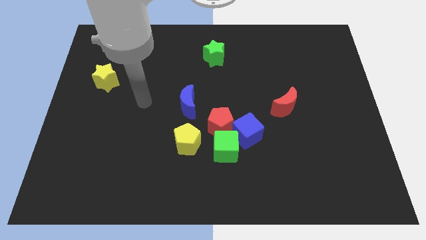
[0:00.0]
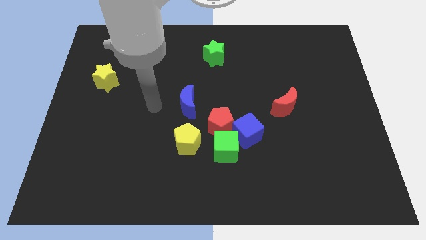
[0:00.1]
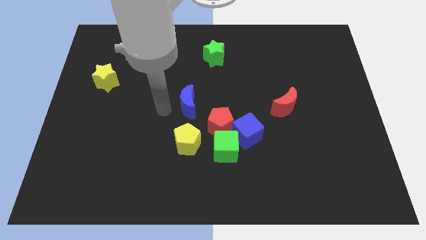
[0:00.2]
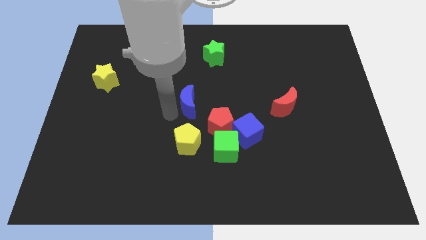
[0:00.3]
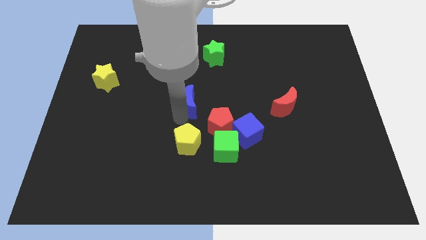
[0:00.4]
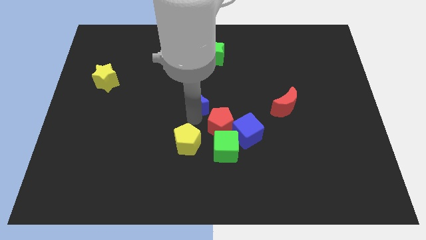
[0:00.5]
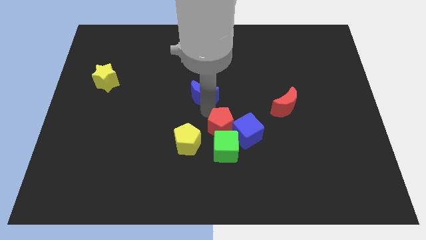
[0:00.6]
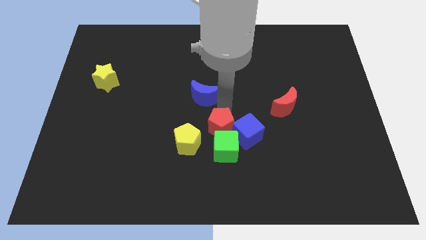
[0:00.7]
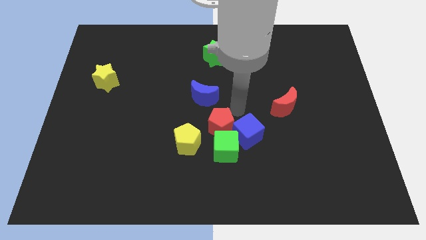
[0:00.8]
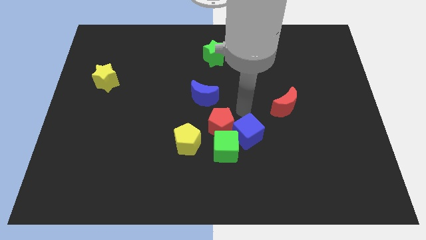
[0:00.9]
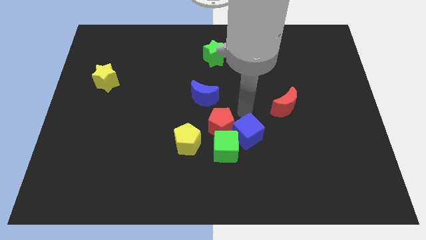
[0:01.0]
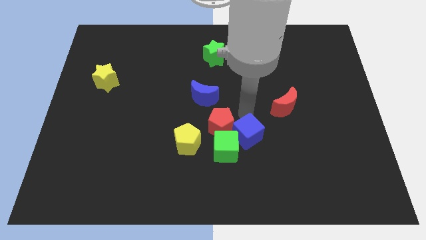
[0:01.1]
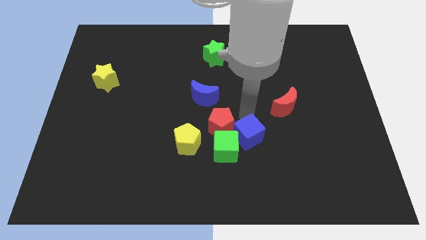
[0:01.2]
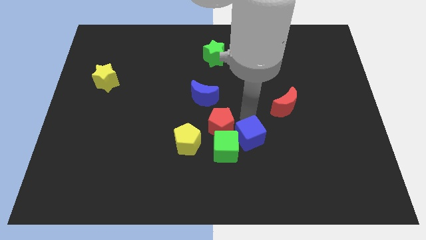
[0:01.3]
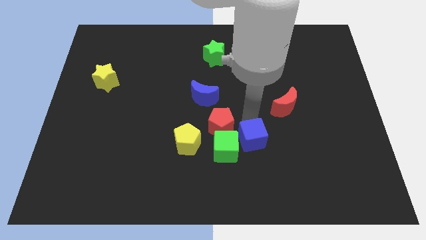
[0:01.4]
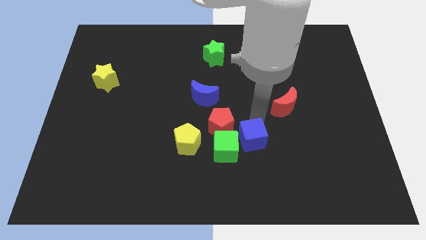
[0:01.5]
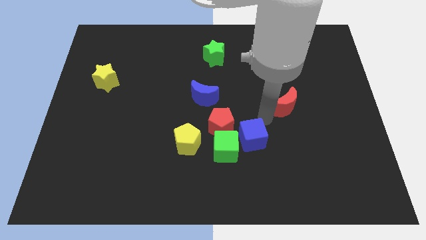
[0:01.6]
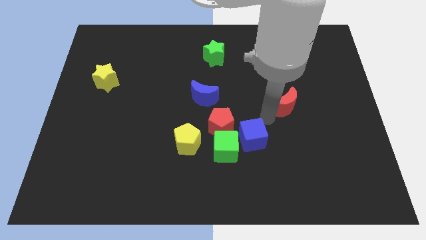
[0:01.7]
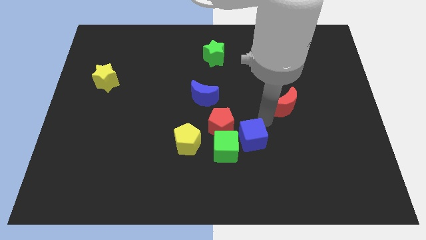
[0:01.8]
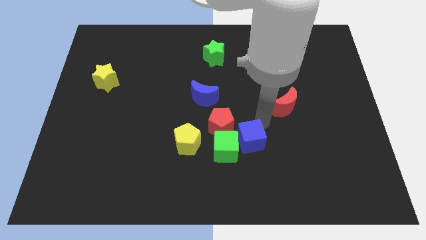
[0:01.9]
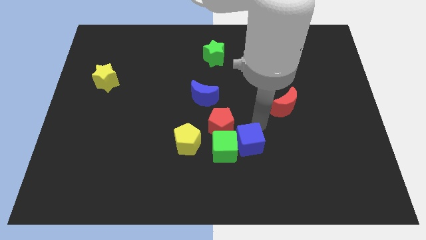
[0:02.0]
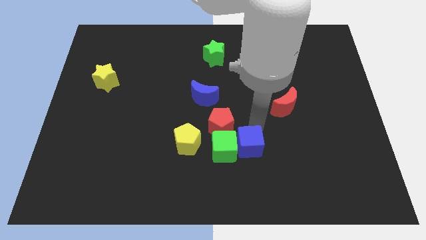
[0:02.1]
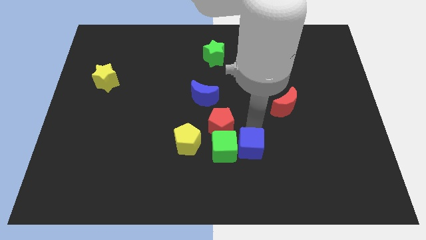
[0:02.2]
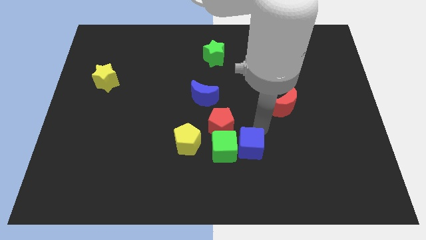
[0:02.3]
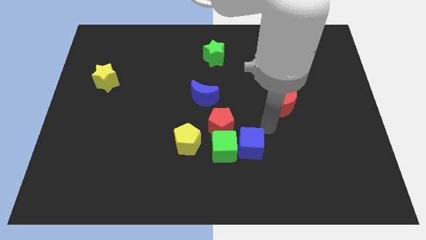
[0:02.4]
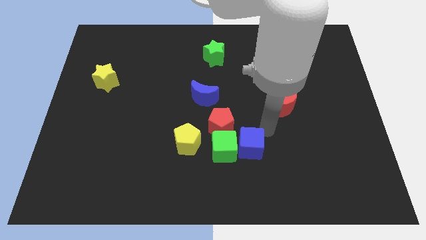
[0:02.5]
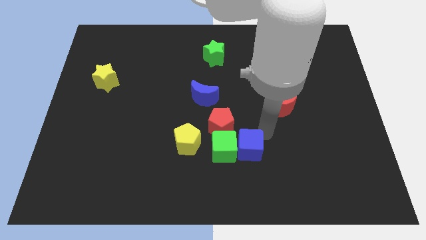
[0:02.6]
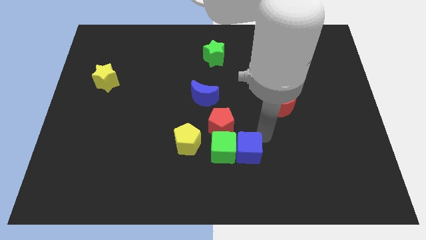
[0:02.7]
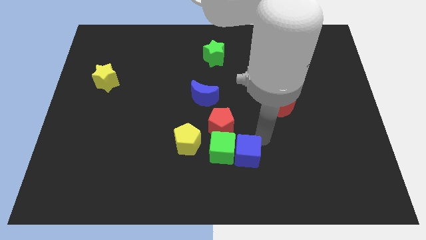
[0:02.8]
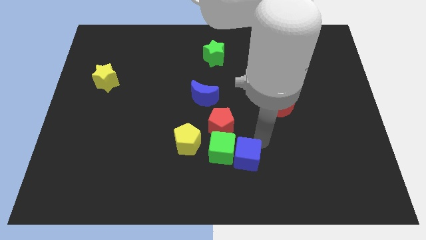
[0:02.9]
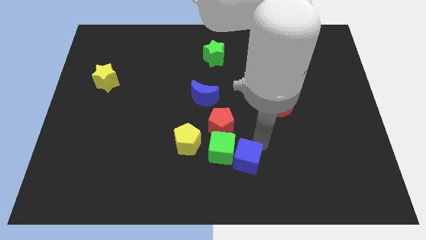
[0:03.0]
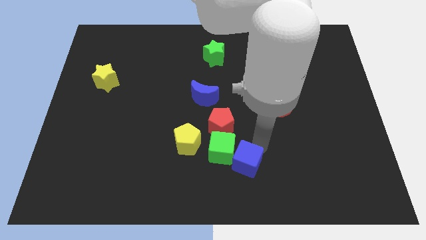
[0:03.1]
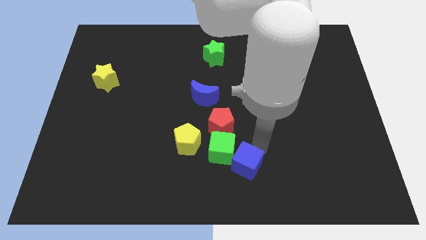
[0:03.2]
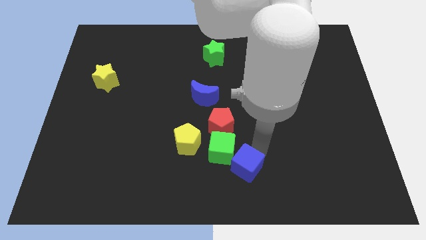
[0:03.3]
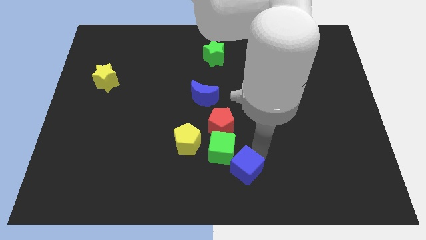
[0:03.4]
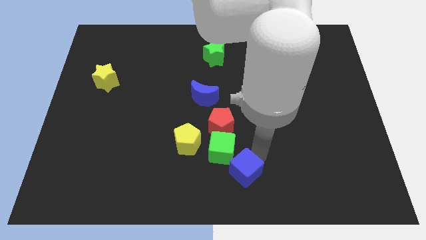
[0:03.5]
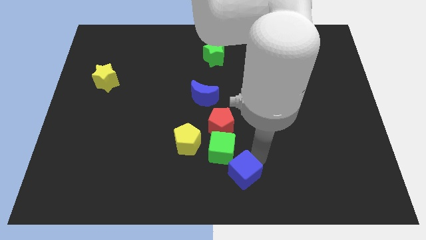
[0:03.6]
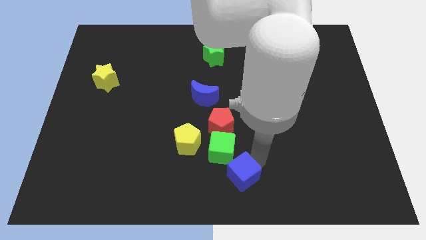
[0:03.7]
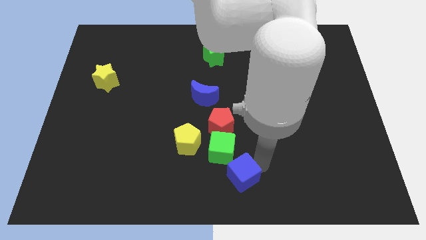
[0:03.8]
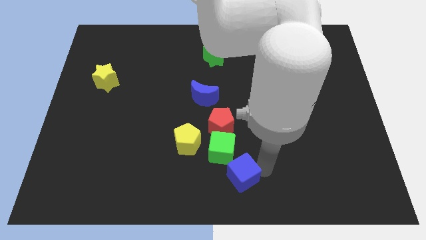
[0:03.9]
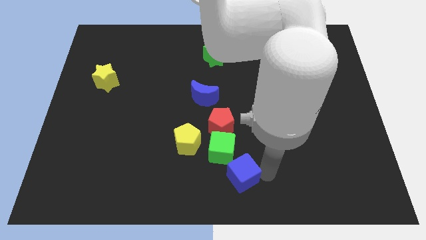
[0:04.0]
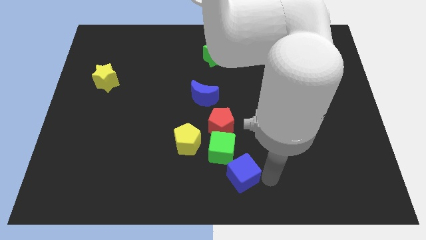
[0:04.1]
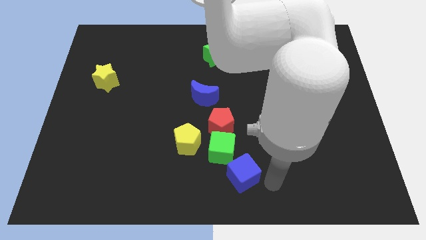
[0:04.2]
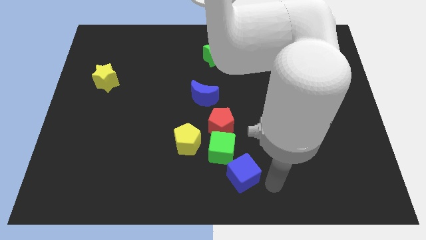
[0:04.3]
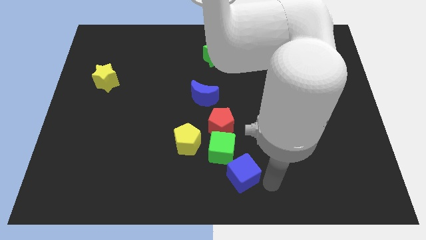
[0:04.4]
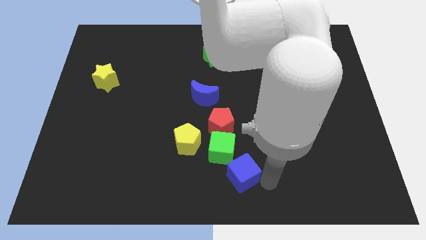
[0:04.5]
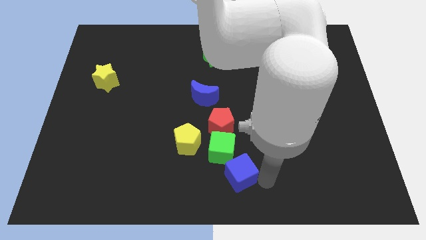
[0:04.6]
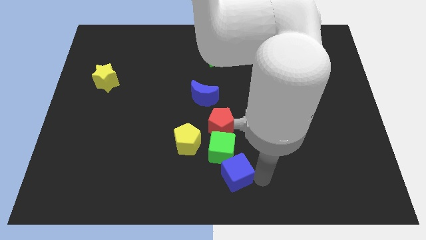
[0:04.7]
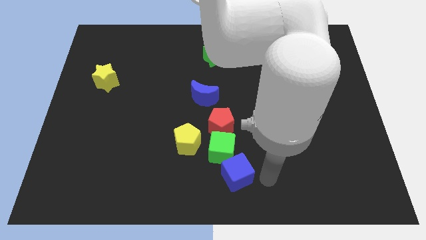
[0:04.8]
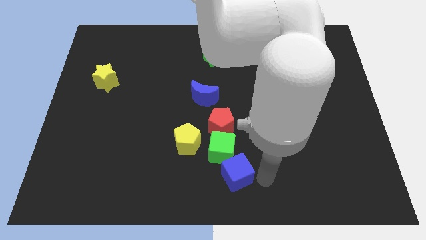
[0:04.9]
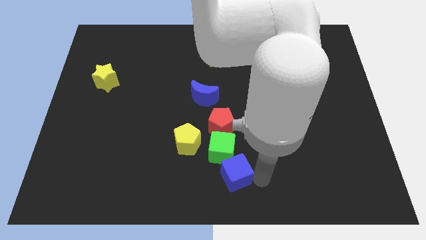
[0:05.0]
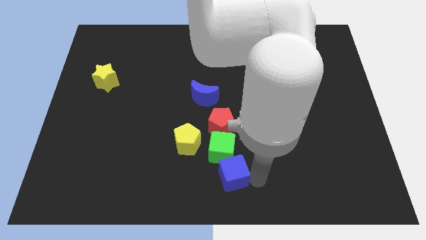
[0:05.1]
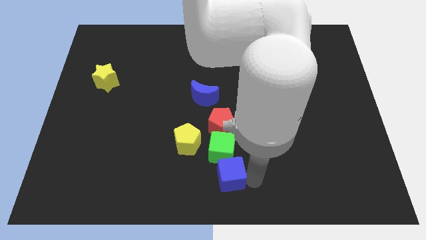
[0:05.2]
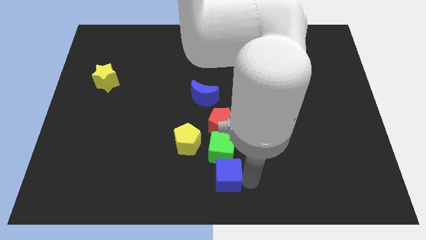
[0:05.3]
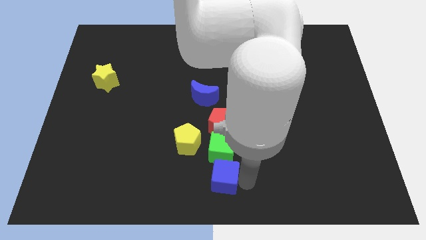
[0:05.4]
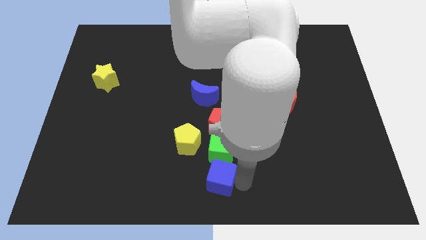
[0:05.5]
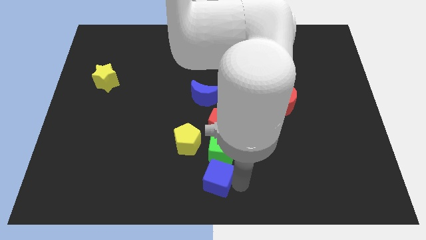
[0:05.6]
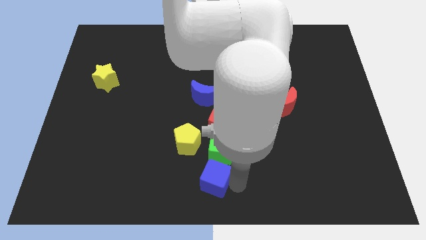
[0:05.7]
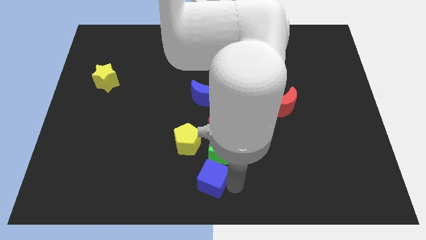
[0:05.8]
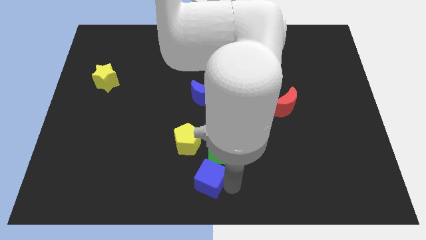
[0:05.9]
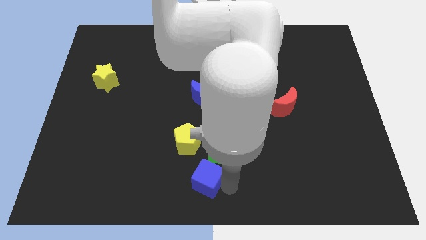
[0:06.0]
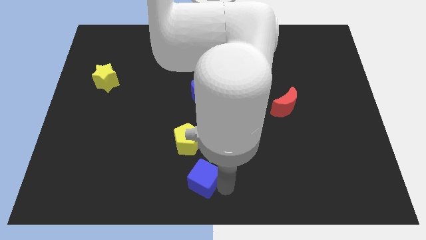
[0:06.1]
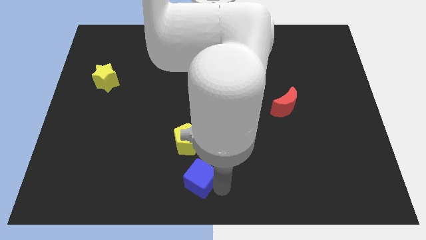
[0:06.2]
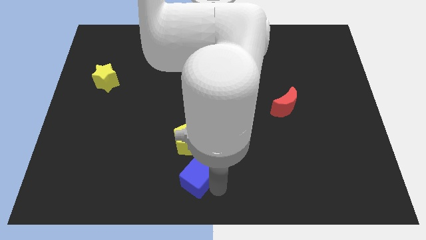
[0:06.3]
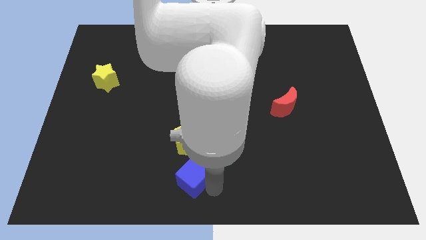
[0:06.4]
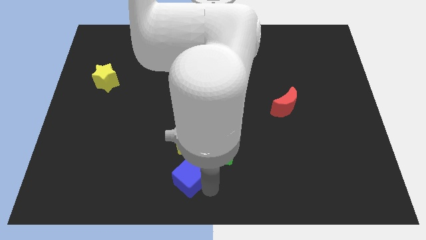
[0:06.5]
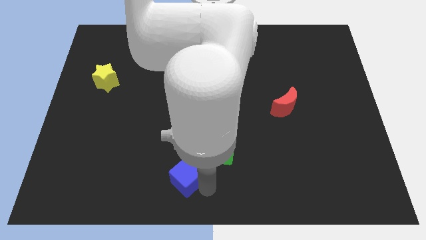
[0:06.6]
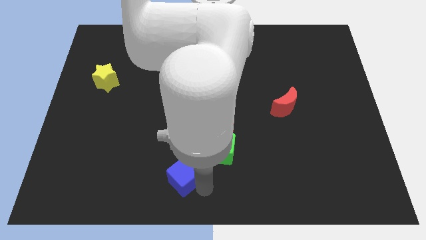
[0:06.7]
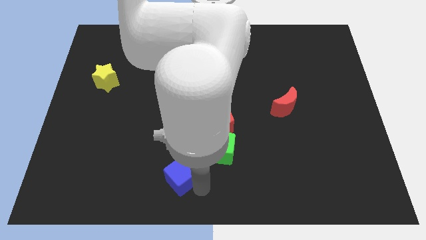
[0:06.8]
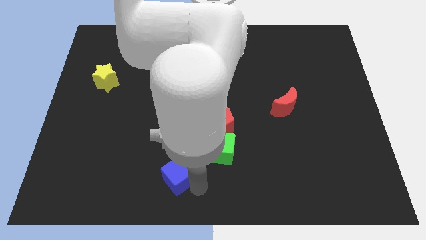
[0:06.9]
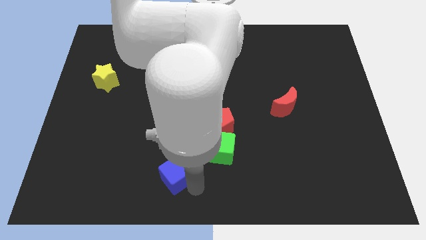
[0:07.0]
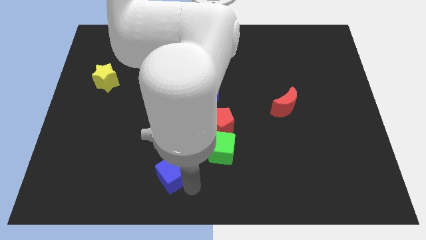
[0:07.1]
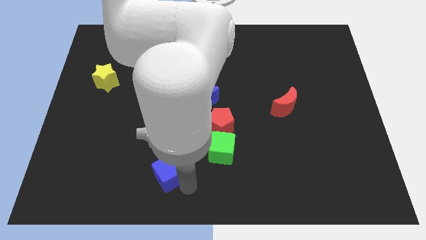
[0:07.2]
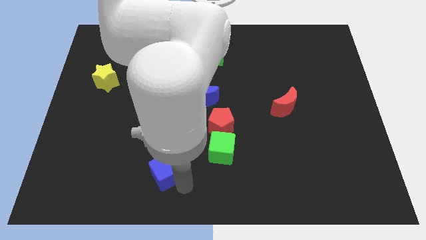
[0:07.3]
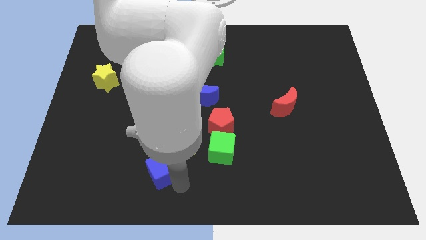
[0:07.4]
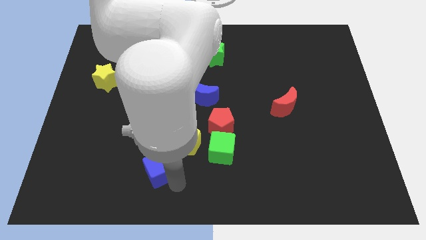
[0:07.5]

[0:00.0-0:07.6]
put the blue cube to the left side of the green cube
